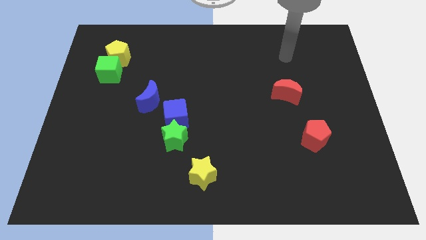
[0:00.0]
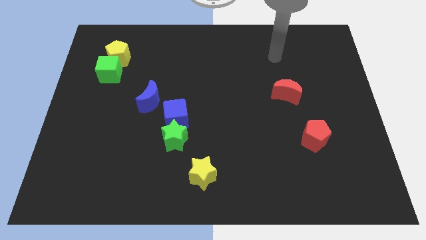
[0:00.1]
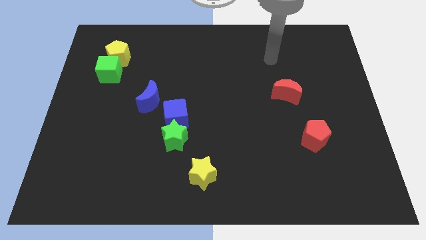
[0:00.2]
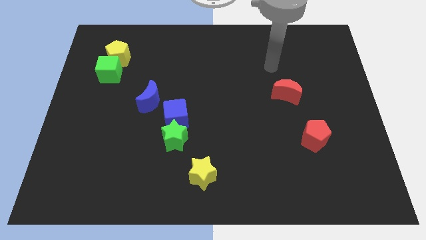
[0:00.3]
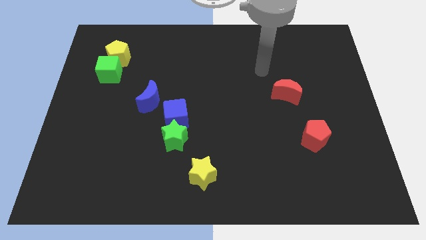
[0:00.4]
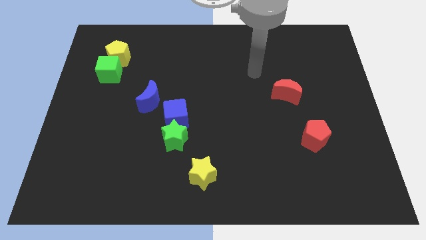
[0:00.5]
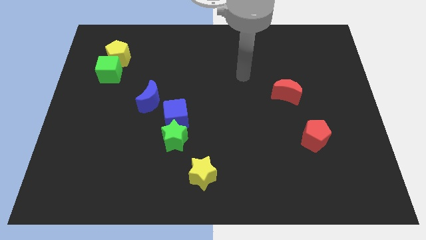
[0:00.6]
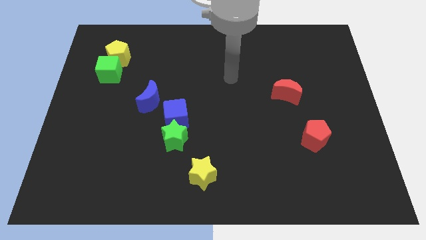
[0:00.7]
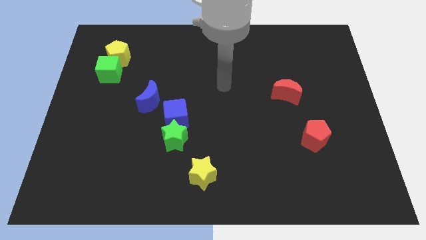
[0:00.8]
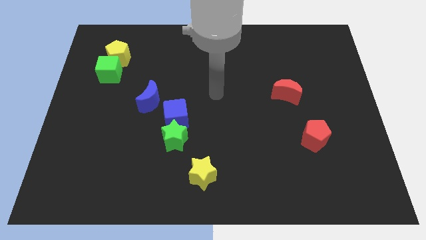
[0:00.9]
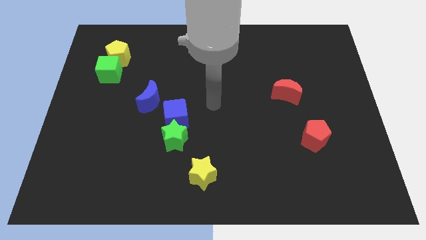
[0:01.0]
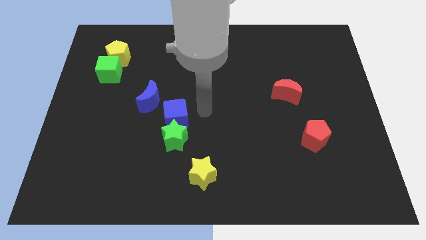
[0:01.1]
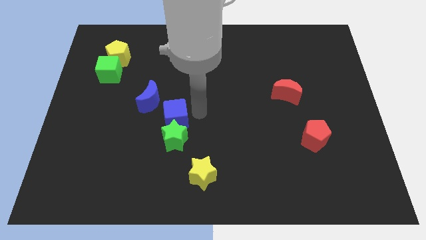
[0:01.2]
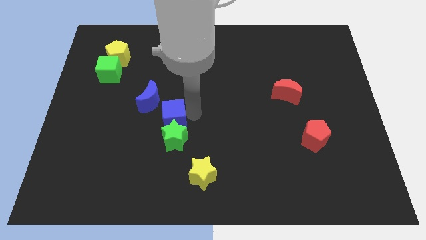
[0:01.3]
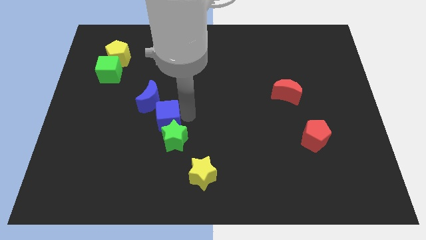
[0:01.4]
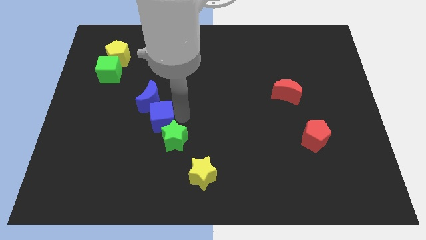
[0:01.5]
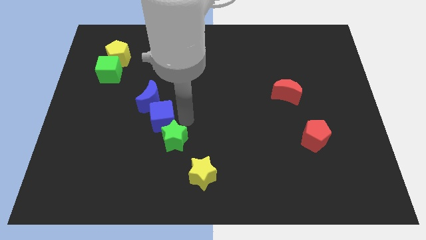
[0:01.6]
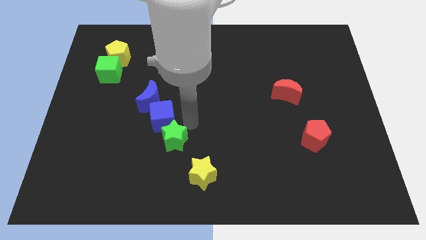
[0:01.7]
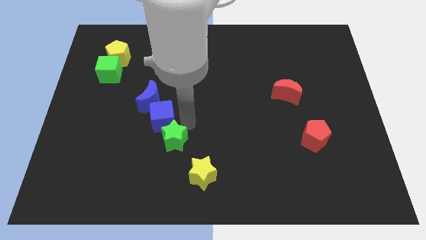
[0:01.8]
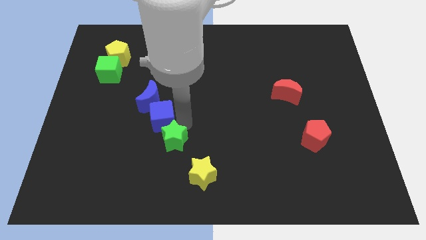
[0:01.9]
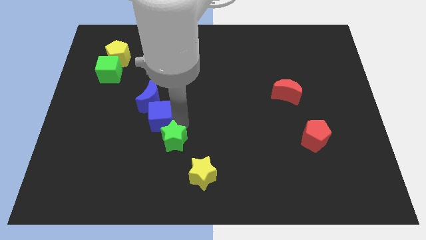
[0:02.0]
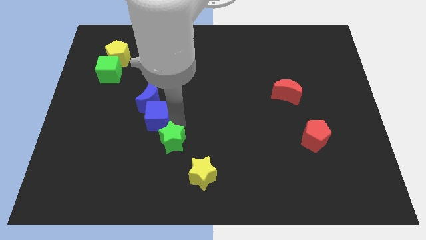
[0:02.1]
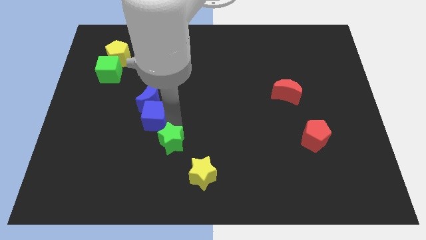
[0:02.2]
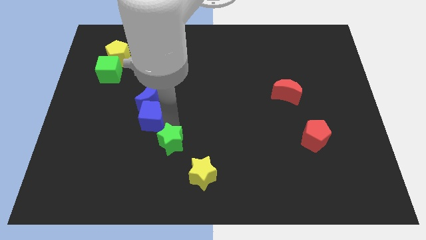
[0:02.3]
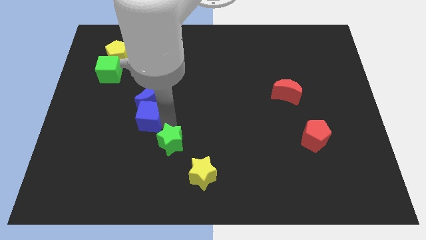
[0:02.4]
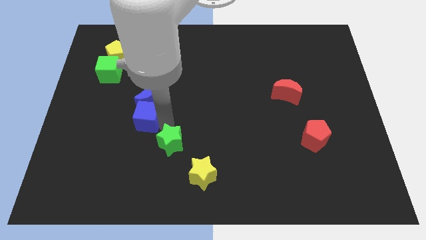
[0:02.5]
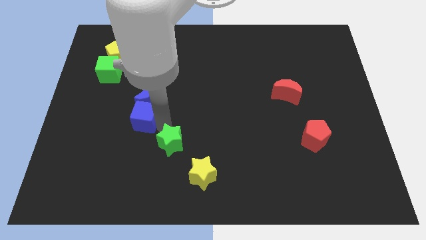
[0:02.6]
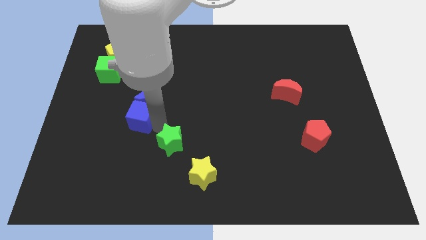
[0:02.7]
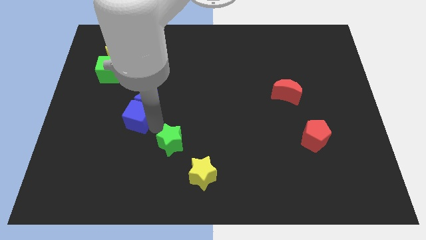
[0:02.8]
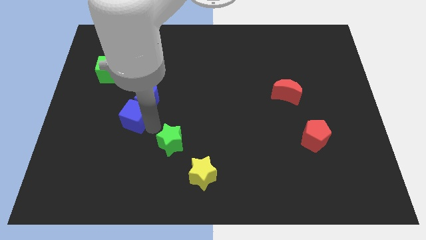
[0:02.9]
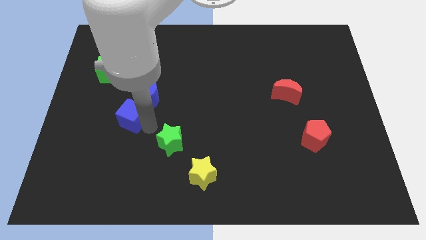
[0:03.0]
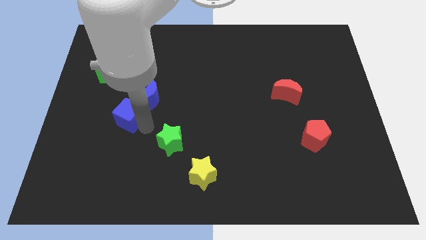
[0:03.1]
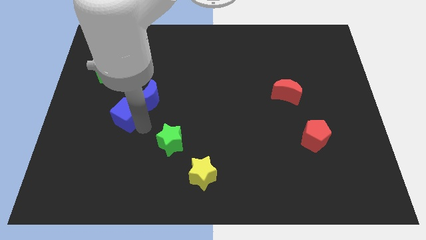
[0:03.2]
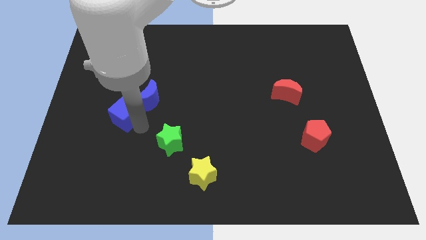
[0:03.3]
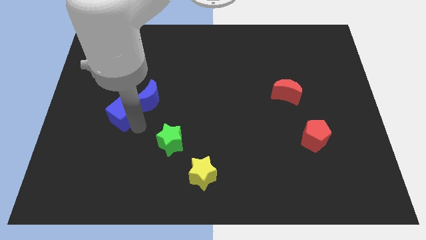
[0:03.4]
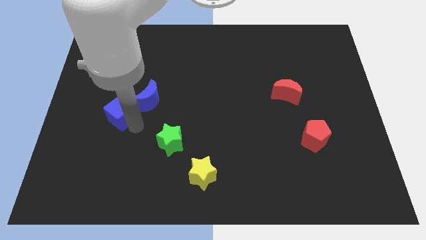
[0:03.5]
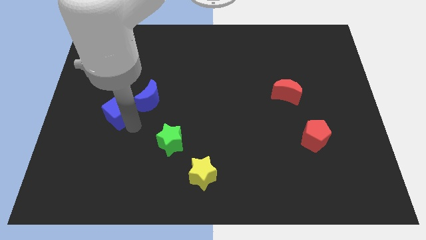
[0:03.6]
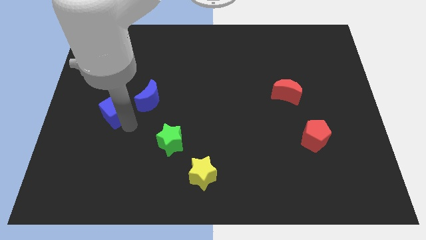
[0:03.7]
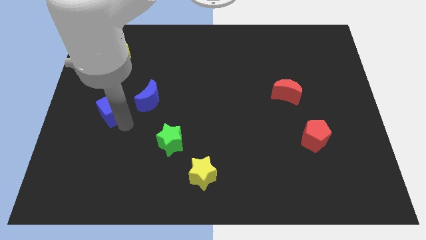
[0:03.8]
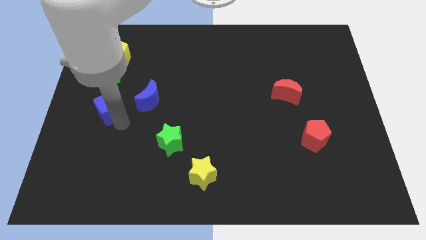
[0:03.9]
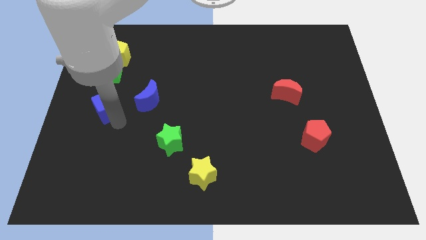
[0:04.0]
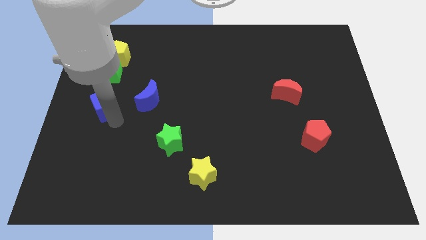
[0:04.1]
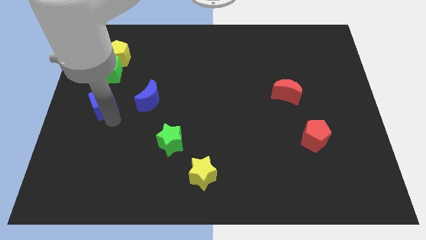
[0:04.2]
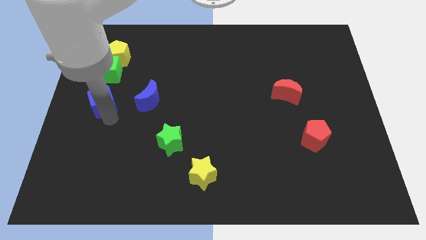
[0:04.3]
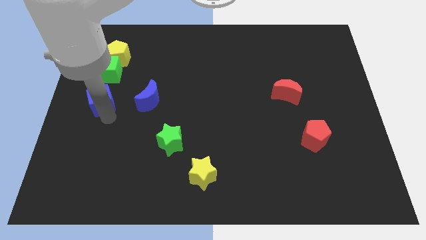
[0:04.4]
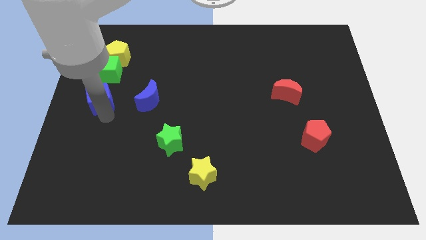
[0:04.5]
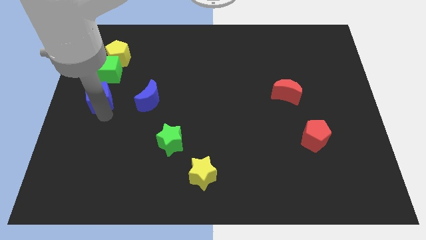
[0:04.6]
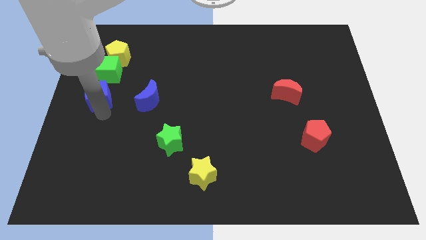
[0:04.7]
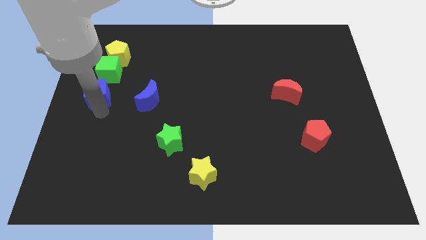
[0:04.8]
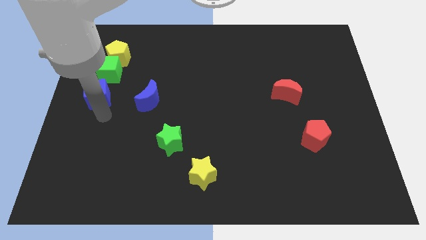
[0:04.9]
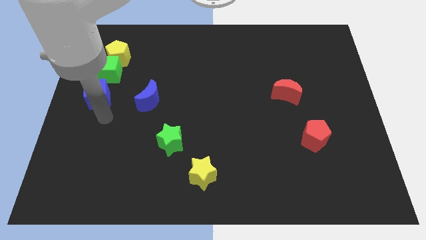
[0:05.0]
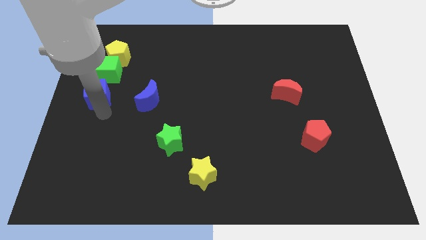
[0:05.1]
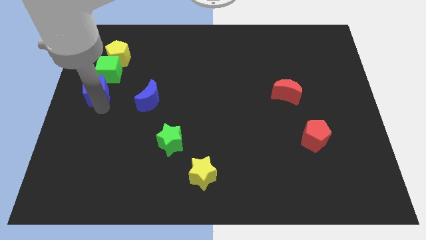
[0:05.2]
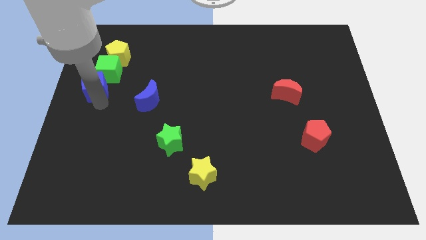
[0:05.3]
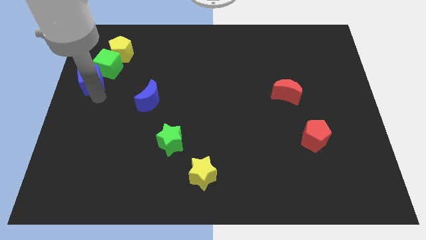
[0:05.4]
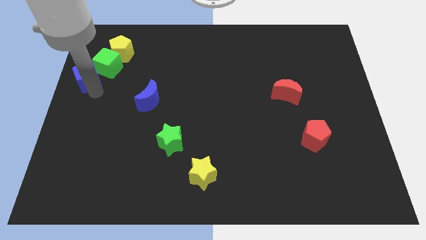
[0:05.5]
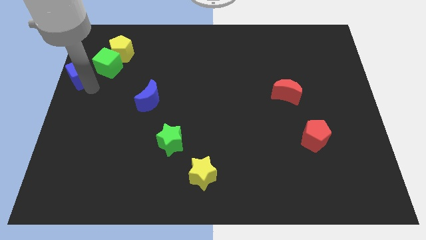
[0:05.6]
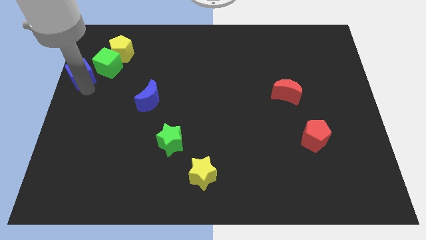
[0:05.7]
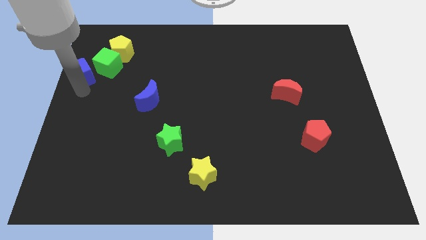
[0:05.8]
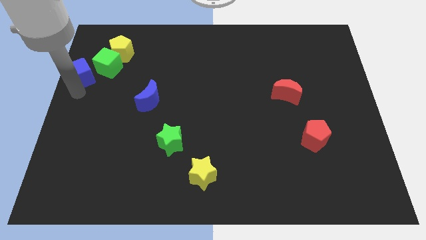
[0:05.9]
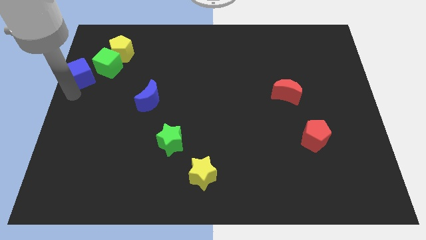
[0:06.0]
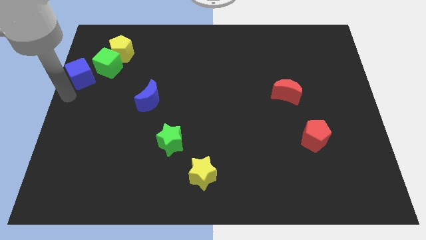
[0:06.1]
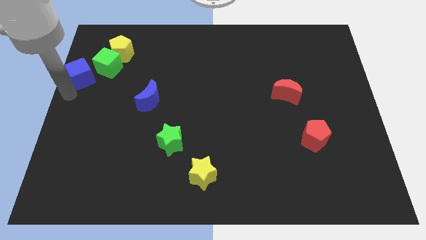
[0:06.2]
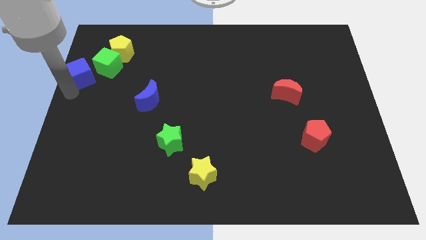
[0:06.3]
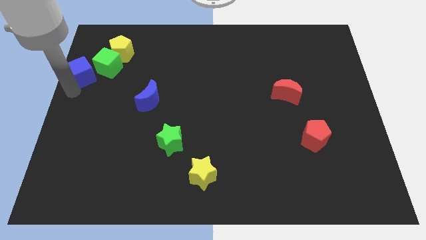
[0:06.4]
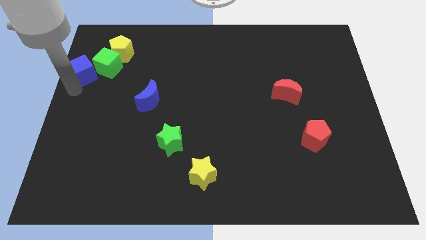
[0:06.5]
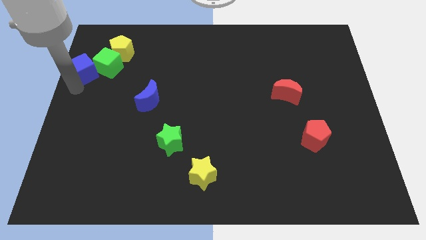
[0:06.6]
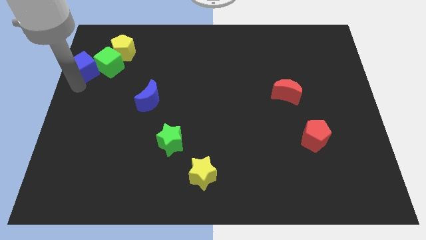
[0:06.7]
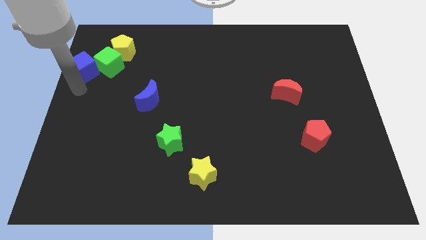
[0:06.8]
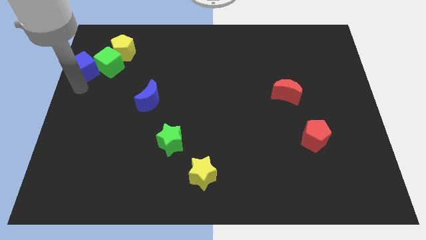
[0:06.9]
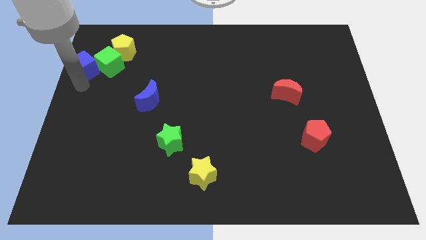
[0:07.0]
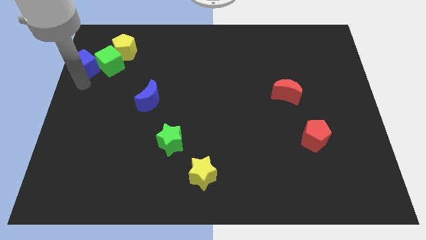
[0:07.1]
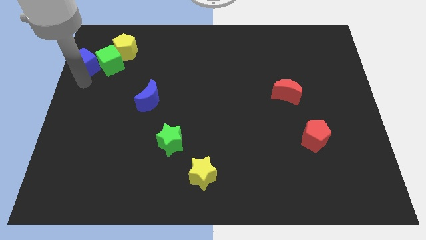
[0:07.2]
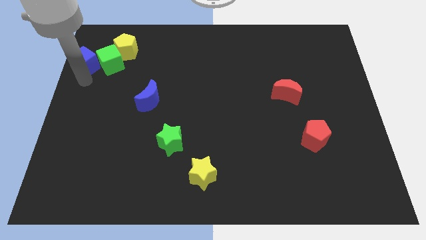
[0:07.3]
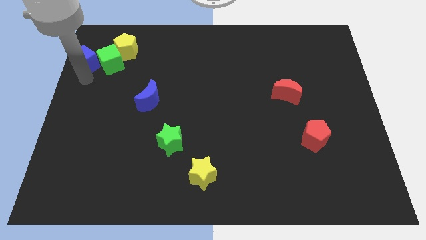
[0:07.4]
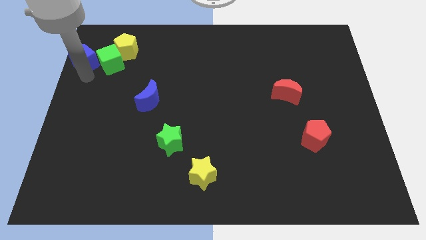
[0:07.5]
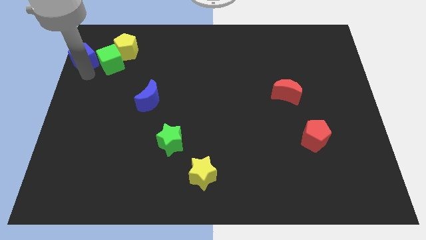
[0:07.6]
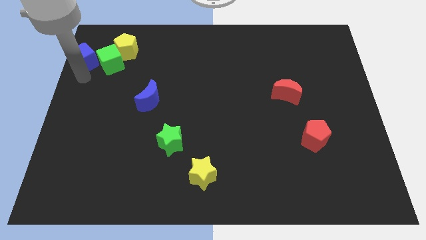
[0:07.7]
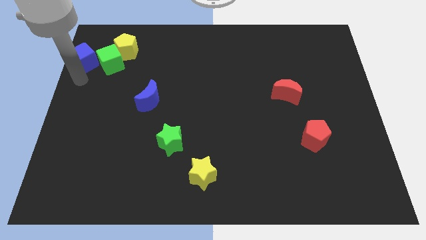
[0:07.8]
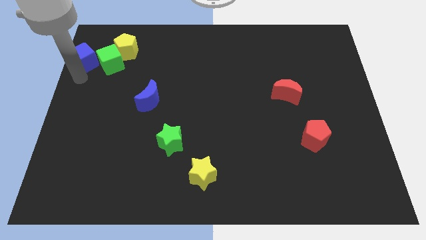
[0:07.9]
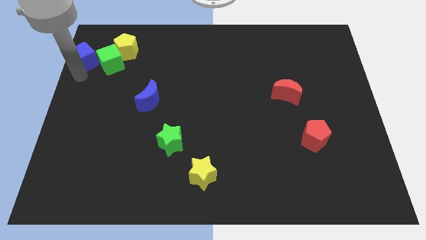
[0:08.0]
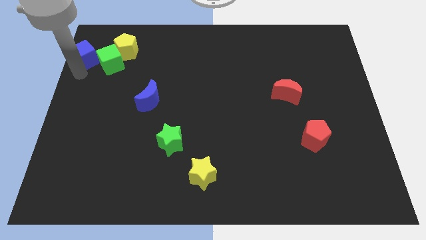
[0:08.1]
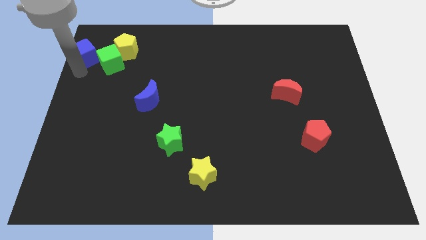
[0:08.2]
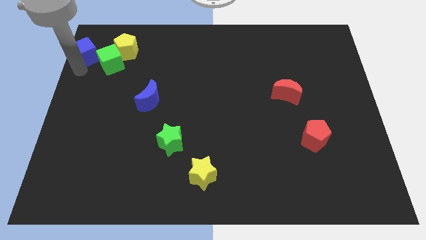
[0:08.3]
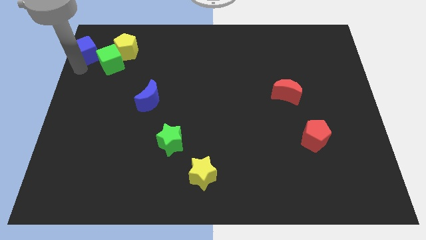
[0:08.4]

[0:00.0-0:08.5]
slide the blue cube to the top left of the board
